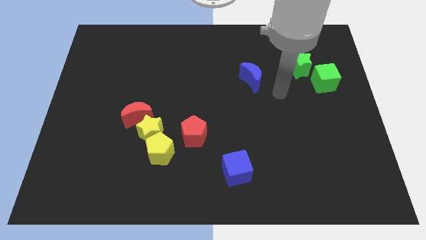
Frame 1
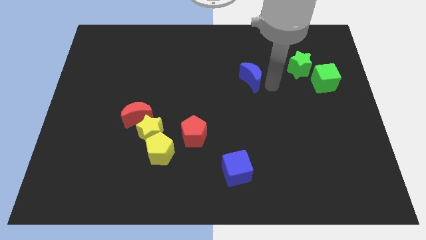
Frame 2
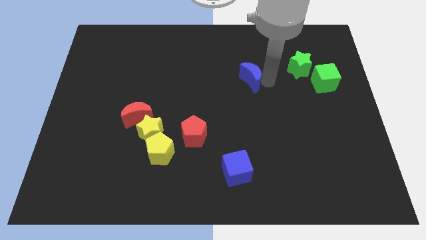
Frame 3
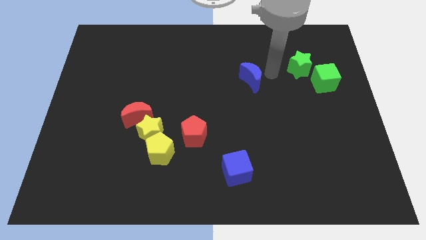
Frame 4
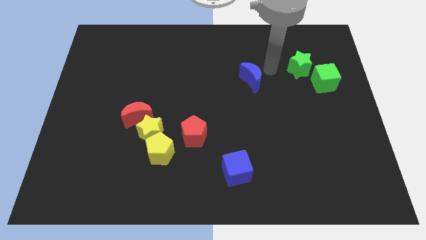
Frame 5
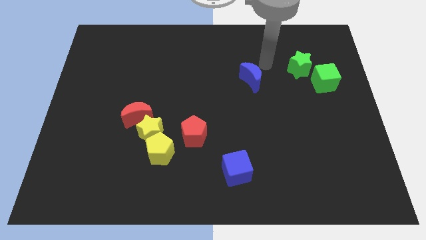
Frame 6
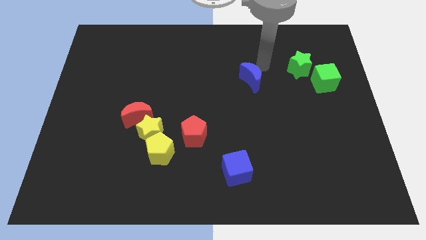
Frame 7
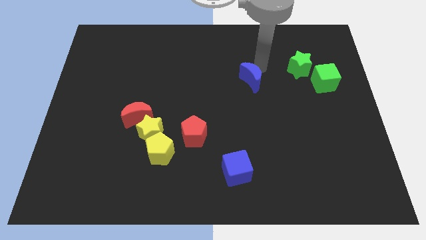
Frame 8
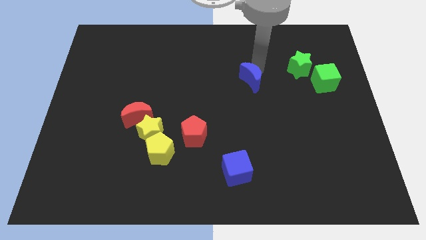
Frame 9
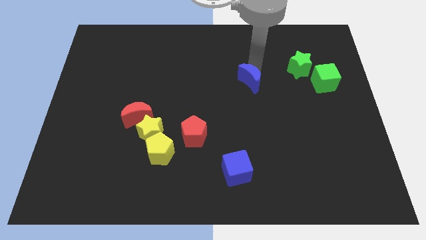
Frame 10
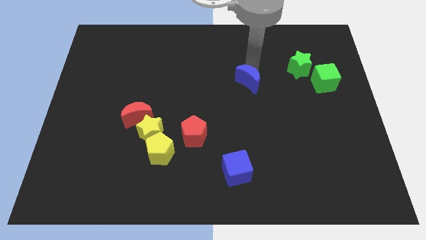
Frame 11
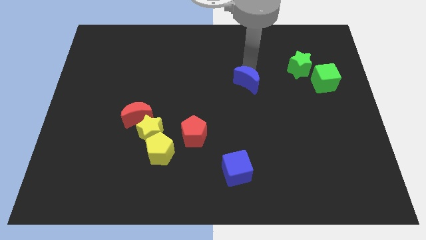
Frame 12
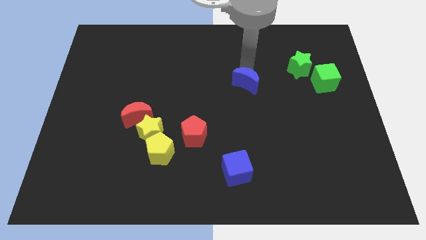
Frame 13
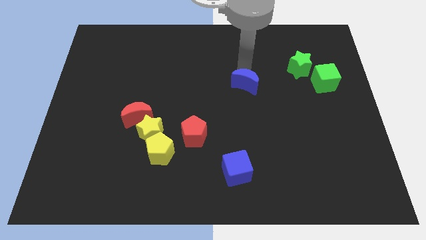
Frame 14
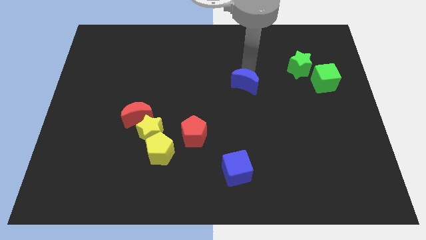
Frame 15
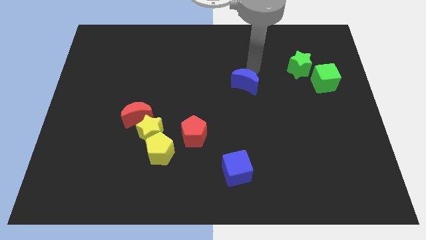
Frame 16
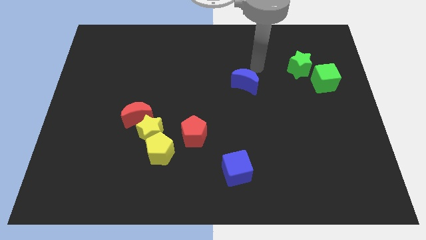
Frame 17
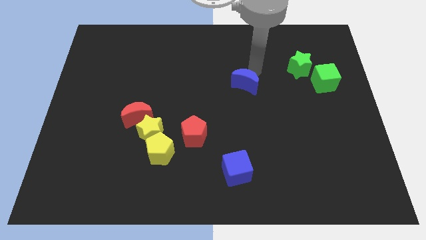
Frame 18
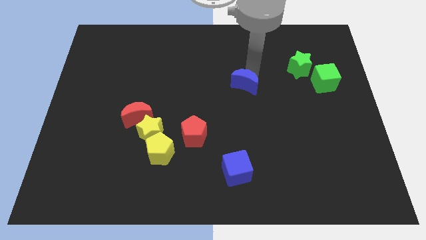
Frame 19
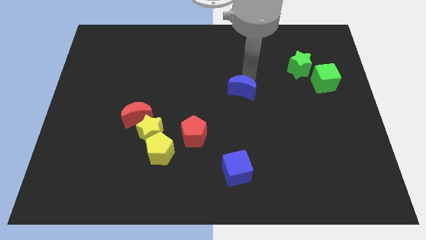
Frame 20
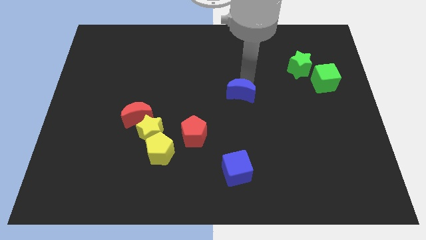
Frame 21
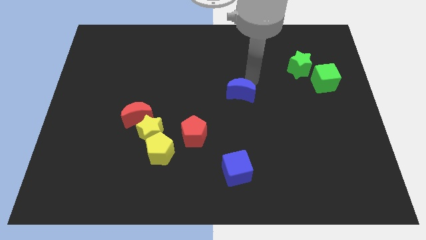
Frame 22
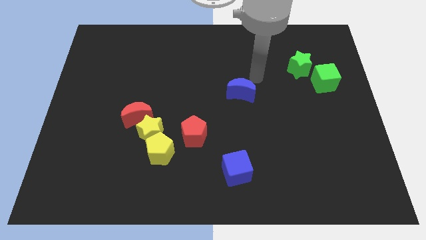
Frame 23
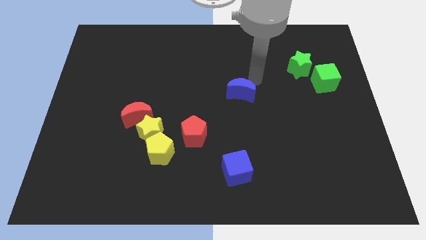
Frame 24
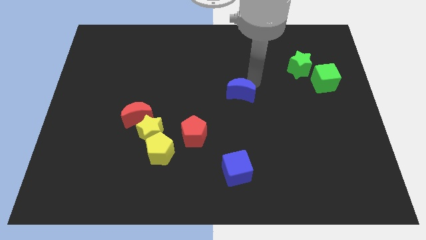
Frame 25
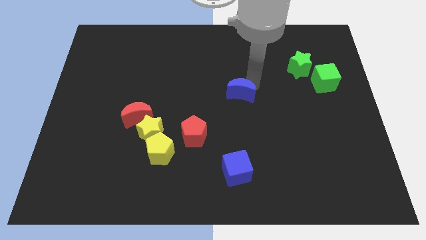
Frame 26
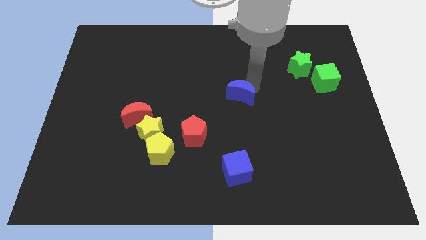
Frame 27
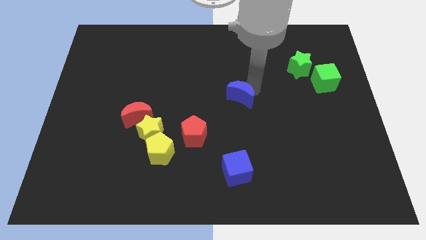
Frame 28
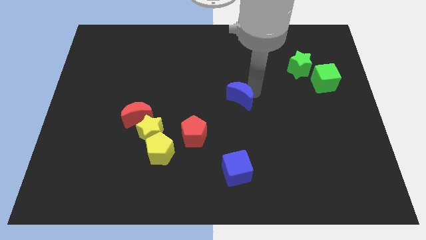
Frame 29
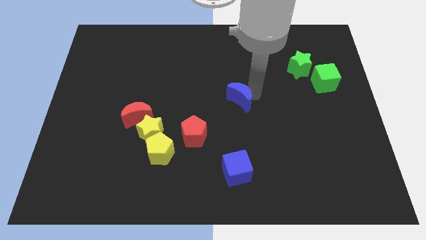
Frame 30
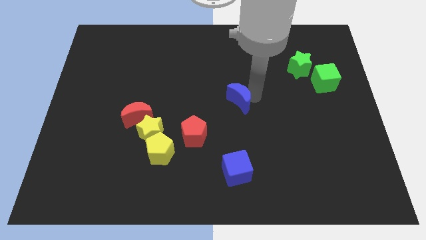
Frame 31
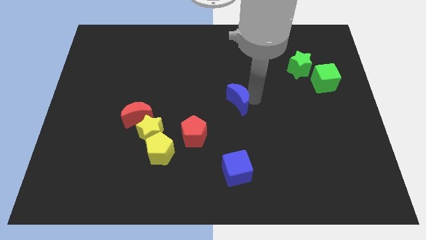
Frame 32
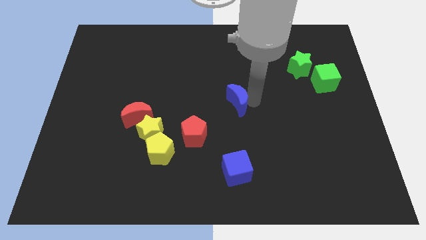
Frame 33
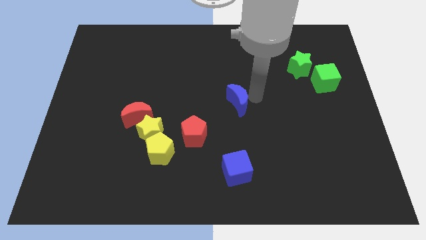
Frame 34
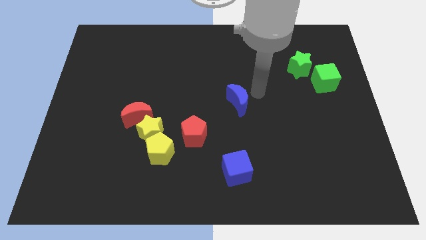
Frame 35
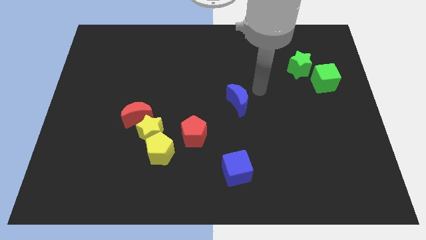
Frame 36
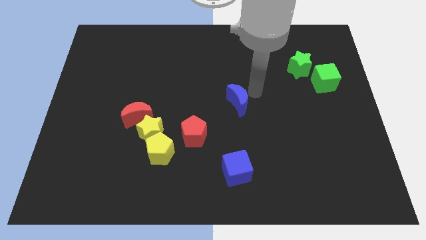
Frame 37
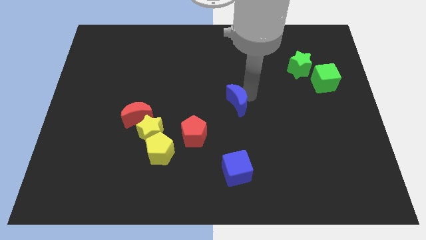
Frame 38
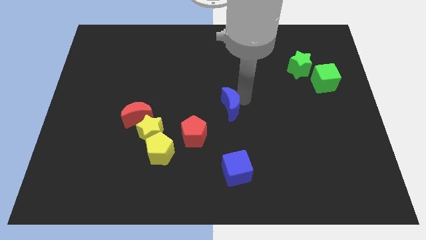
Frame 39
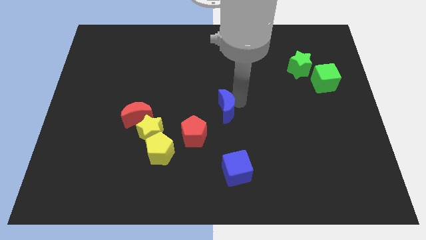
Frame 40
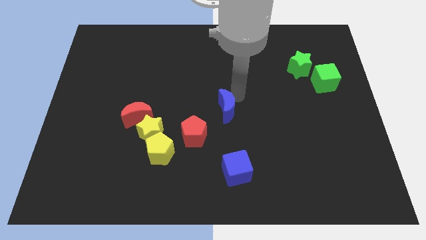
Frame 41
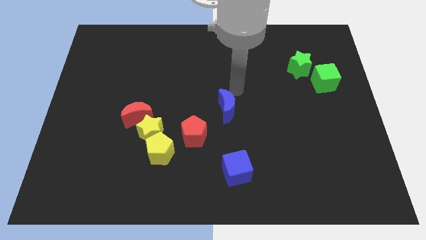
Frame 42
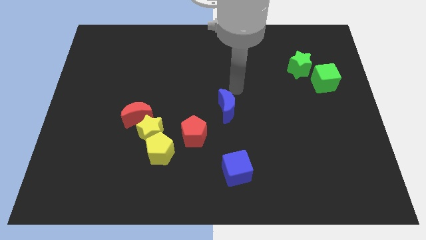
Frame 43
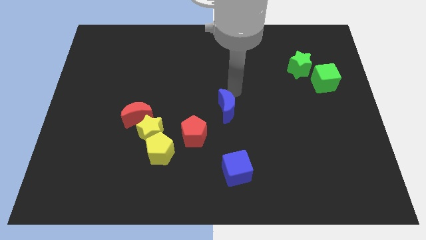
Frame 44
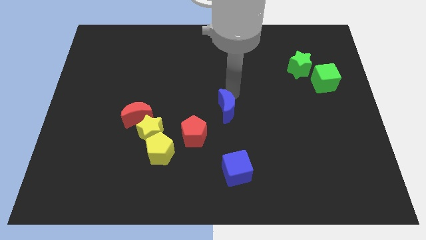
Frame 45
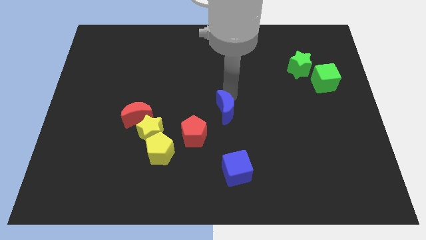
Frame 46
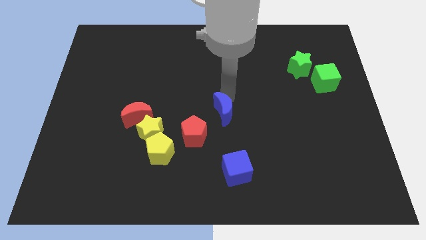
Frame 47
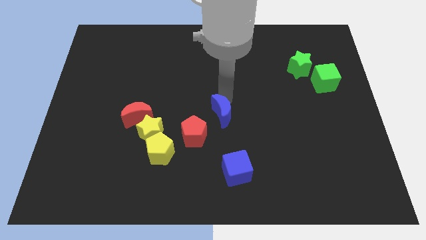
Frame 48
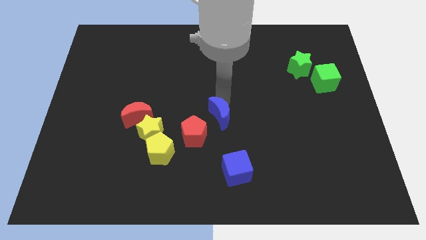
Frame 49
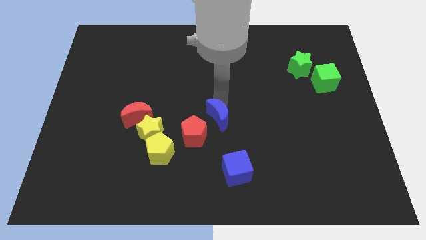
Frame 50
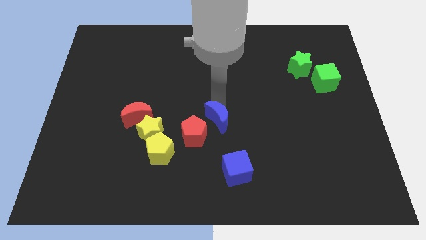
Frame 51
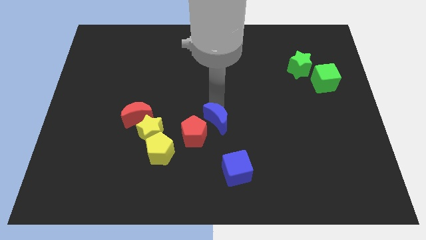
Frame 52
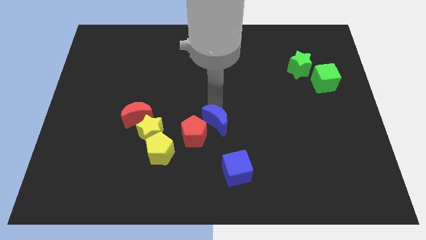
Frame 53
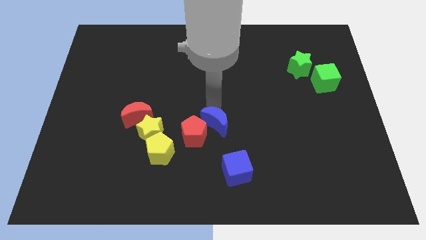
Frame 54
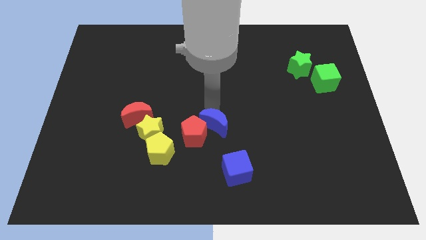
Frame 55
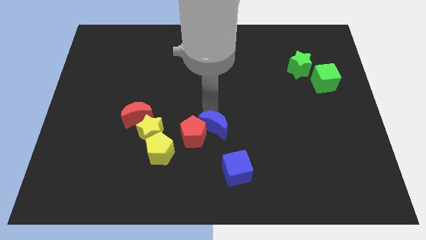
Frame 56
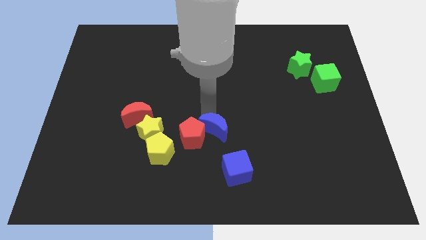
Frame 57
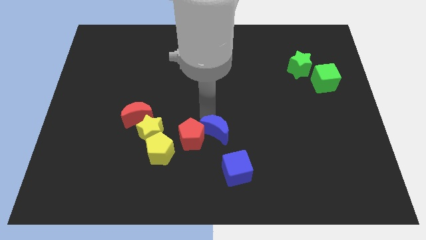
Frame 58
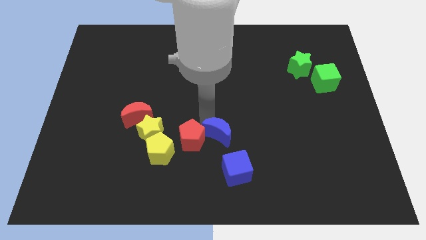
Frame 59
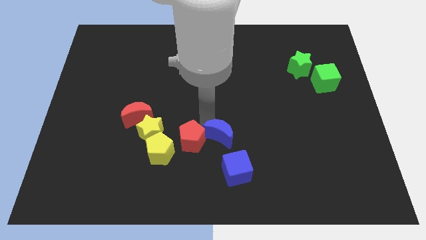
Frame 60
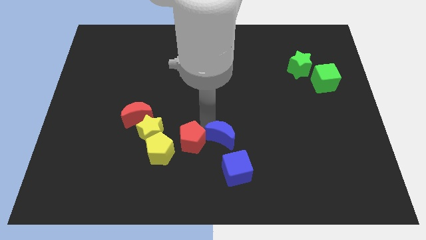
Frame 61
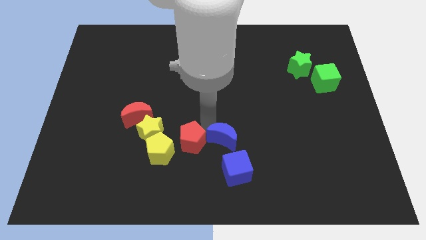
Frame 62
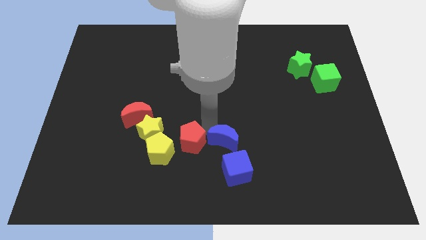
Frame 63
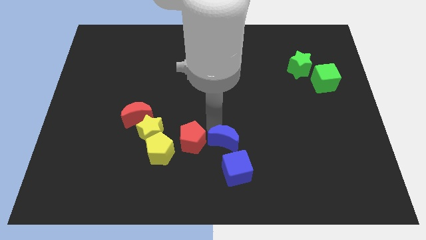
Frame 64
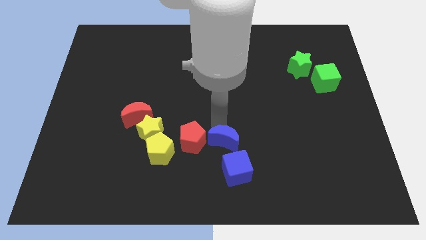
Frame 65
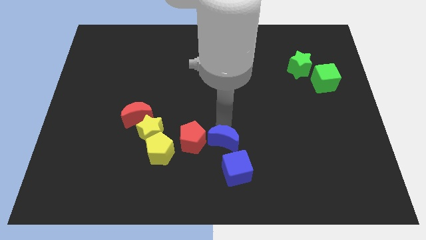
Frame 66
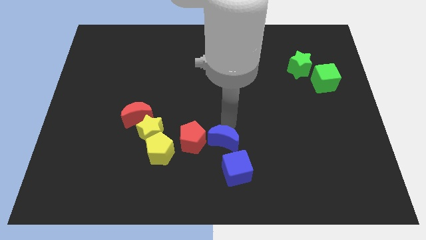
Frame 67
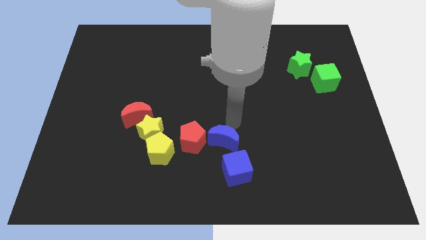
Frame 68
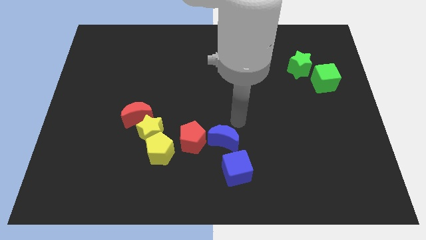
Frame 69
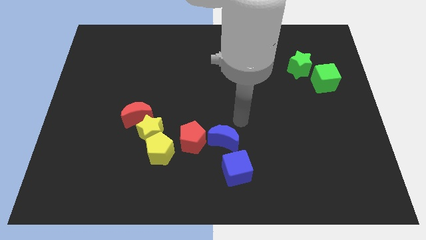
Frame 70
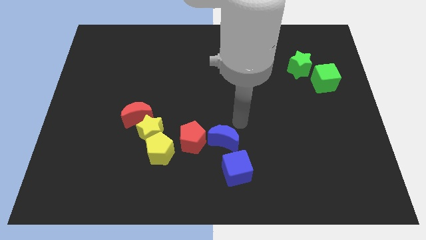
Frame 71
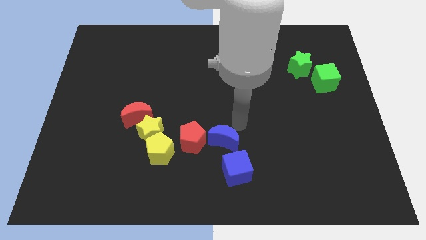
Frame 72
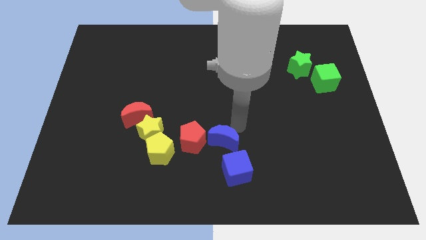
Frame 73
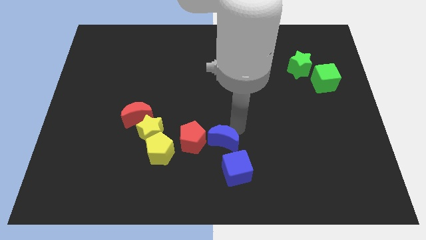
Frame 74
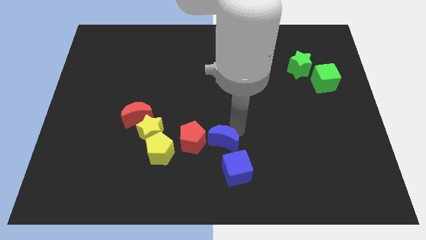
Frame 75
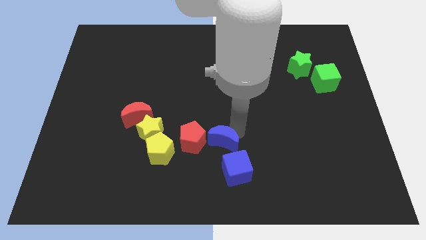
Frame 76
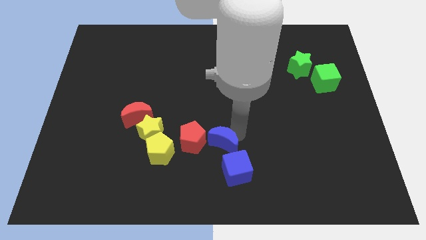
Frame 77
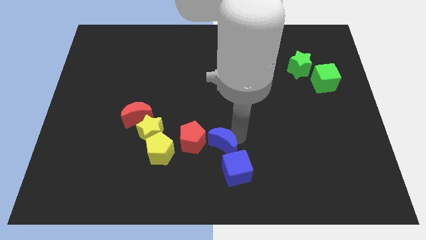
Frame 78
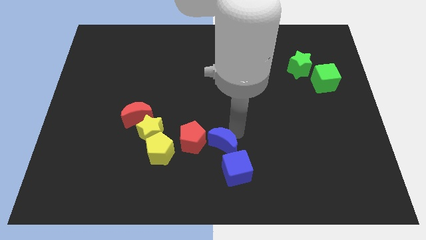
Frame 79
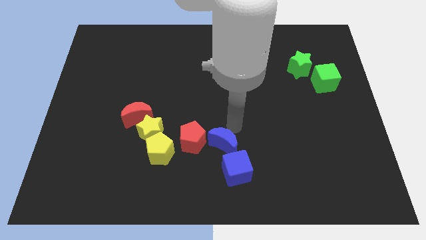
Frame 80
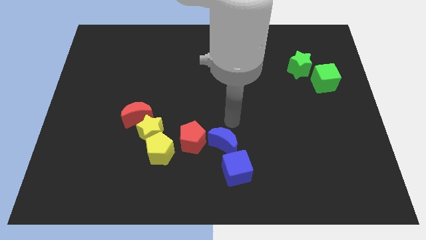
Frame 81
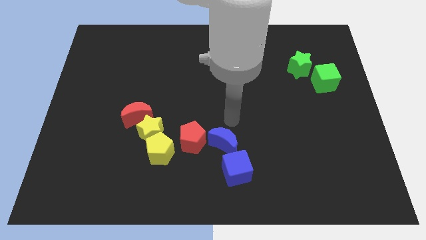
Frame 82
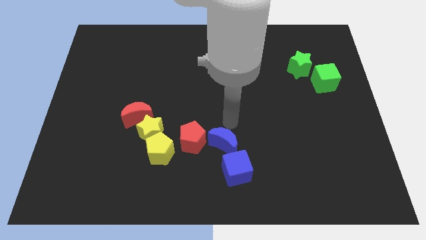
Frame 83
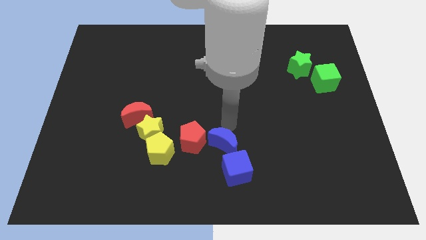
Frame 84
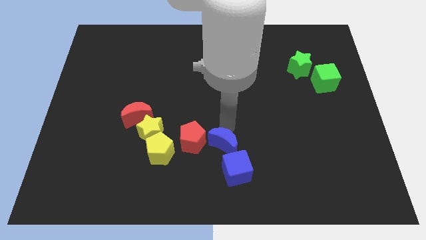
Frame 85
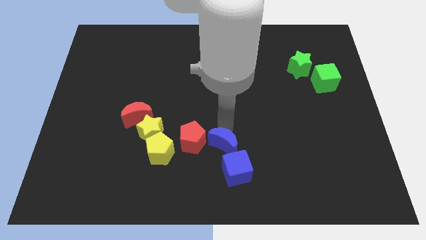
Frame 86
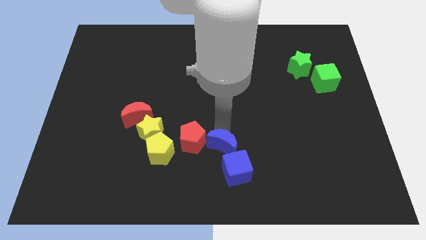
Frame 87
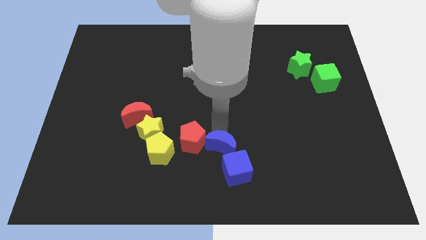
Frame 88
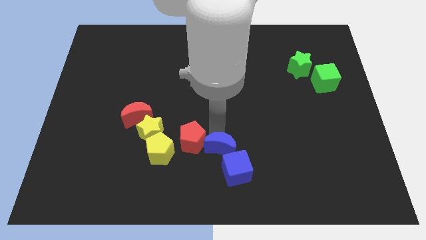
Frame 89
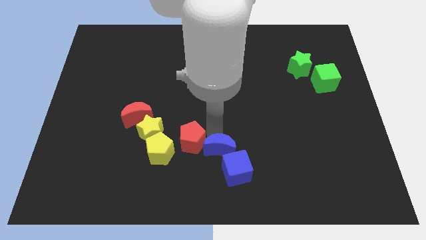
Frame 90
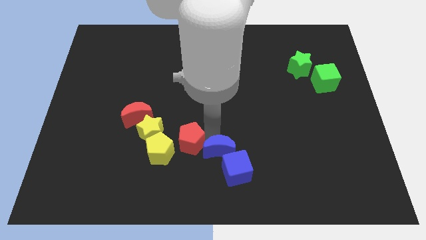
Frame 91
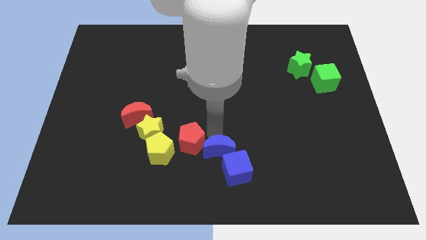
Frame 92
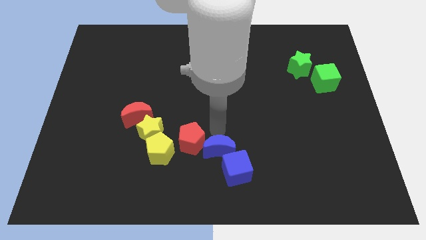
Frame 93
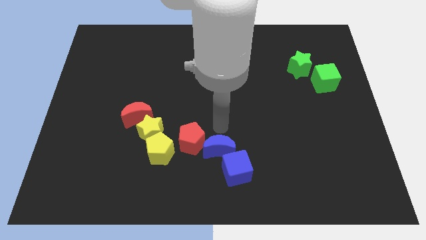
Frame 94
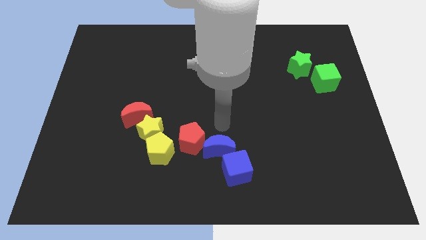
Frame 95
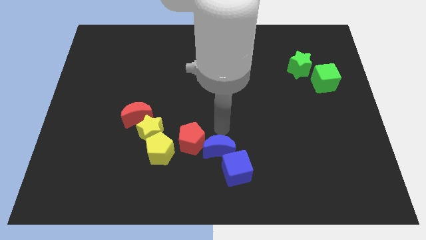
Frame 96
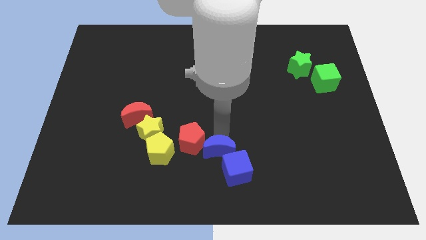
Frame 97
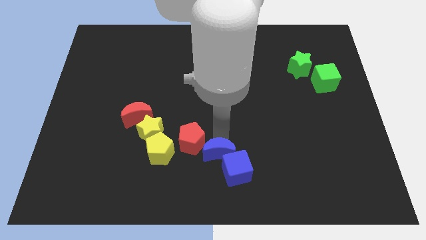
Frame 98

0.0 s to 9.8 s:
push the blue moon to the bottom side
